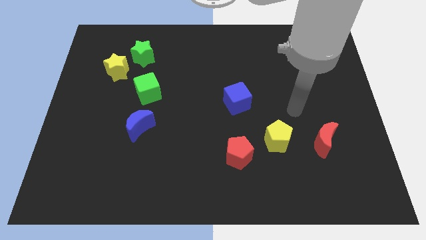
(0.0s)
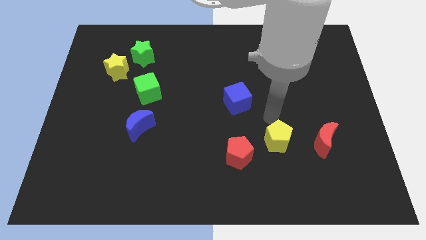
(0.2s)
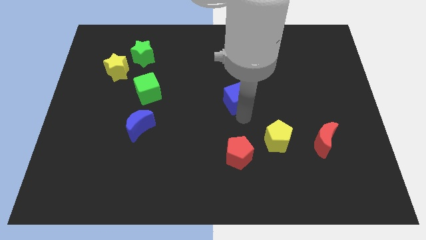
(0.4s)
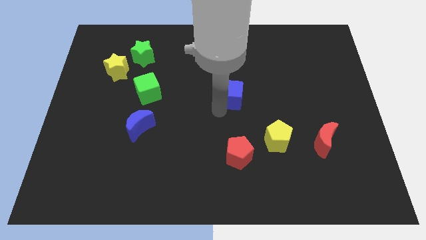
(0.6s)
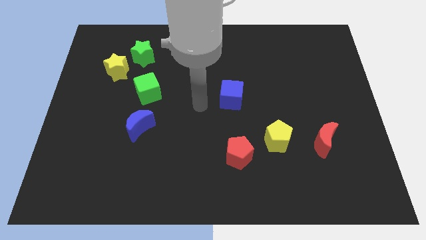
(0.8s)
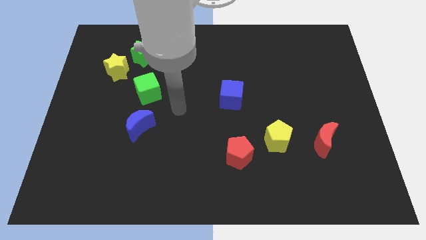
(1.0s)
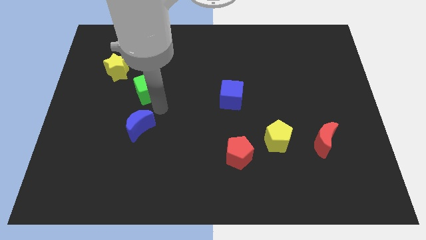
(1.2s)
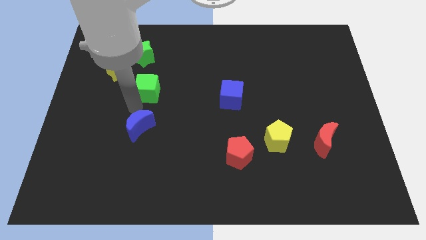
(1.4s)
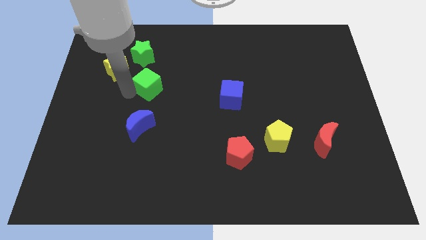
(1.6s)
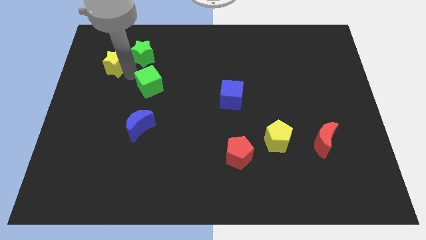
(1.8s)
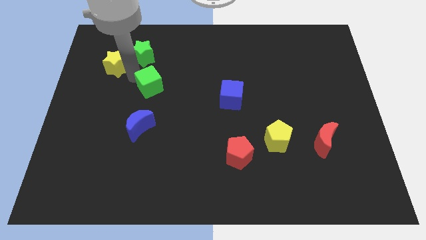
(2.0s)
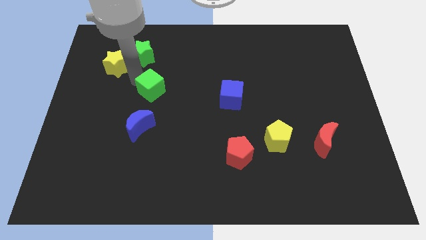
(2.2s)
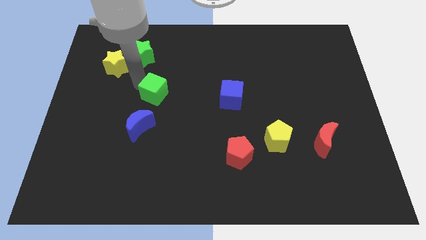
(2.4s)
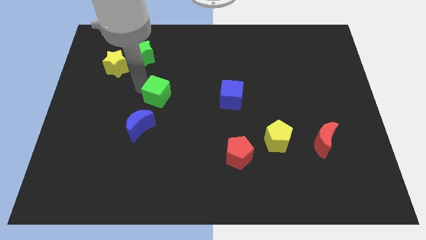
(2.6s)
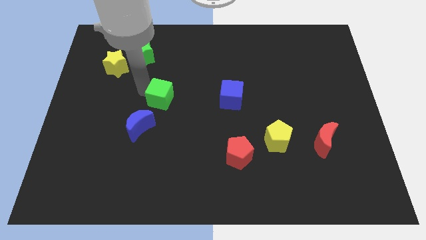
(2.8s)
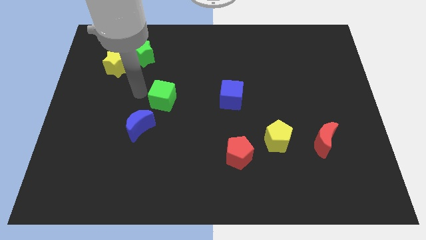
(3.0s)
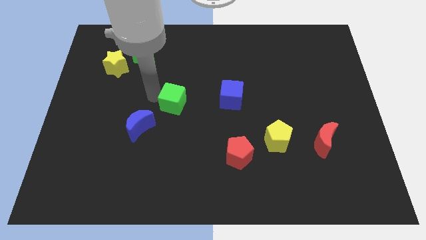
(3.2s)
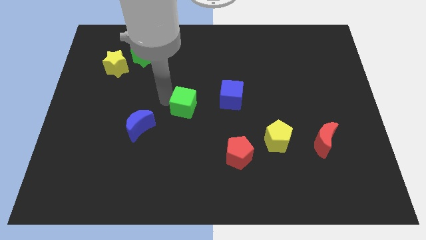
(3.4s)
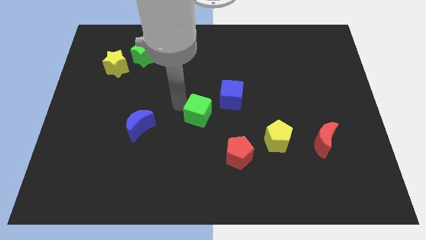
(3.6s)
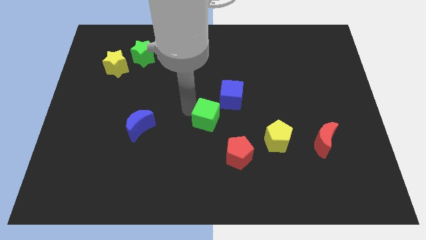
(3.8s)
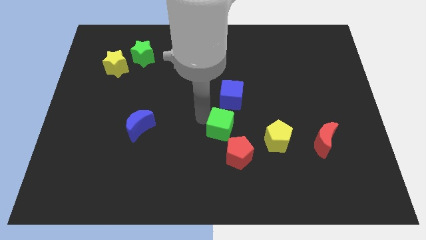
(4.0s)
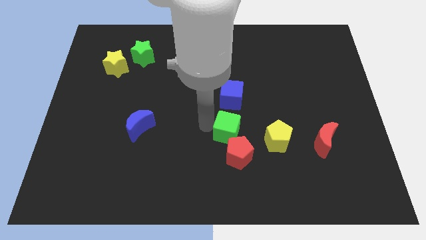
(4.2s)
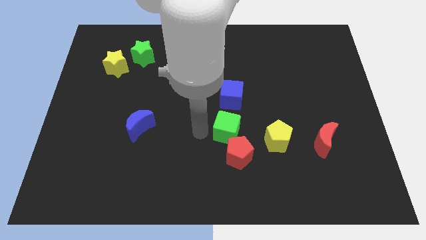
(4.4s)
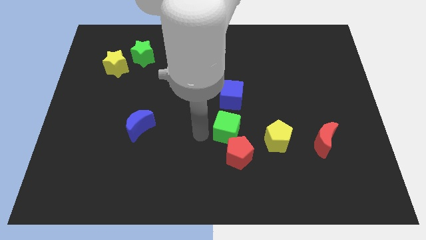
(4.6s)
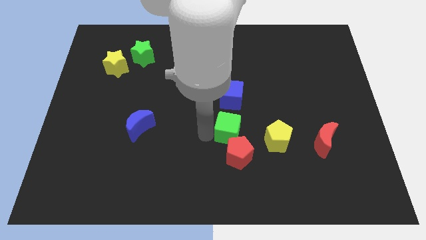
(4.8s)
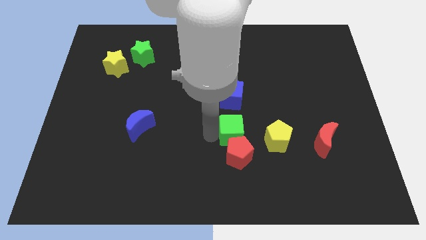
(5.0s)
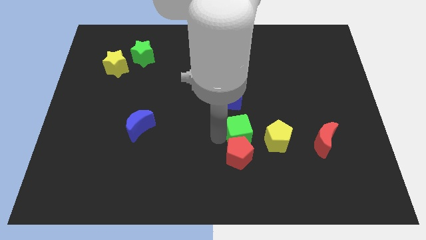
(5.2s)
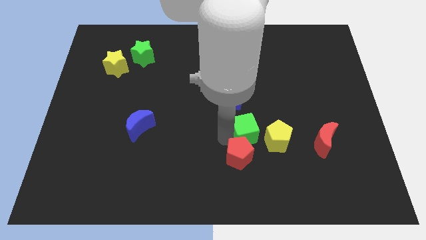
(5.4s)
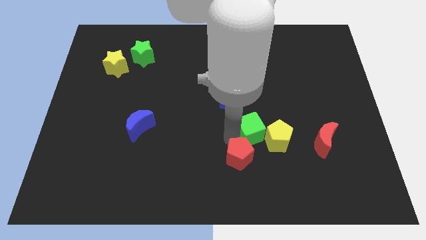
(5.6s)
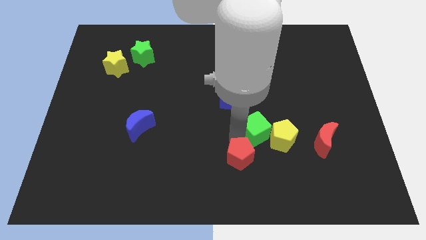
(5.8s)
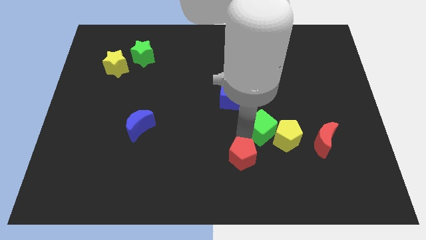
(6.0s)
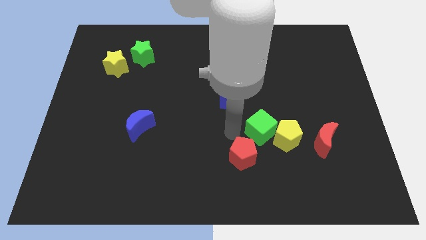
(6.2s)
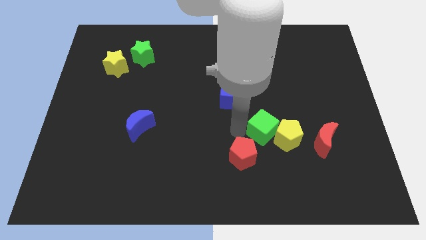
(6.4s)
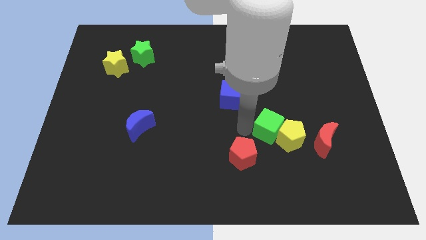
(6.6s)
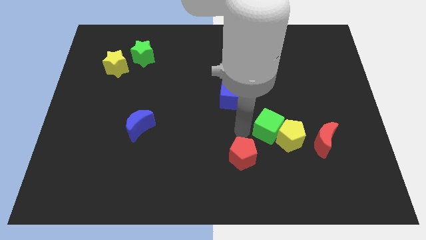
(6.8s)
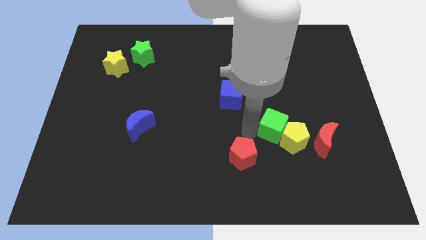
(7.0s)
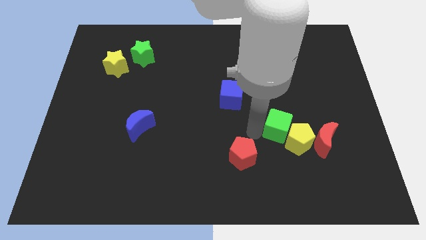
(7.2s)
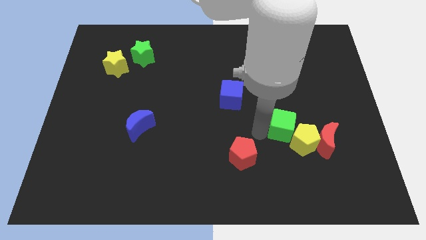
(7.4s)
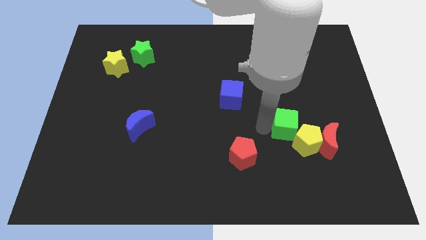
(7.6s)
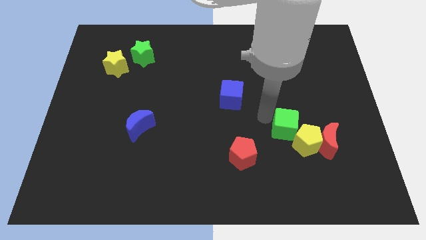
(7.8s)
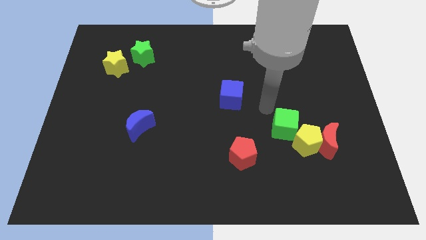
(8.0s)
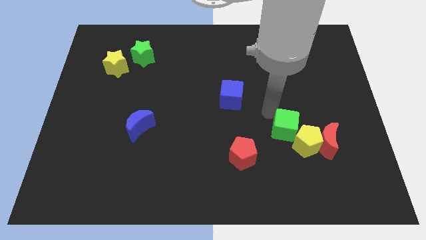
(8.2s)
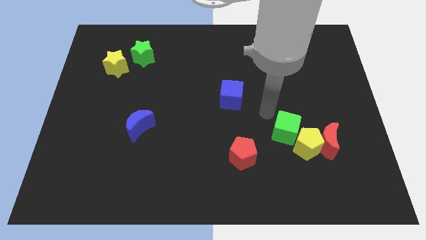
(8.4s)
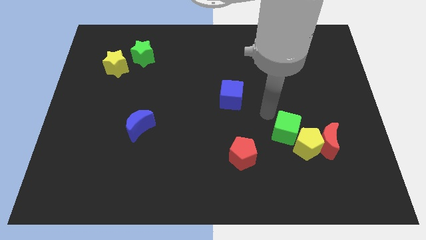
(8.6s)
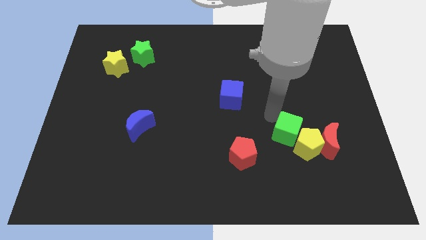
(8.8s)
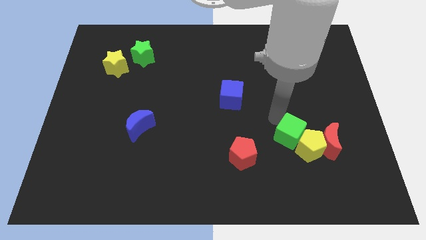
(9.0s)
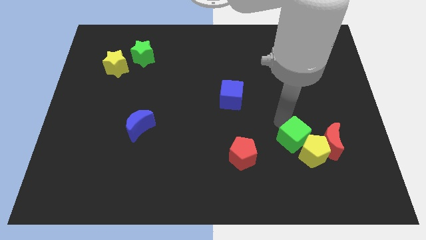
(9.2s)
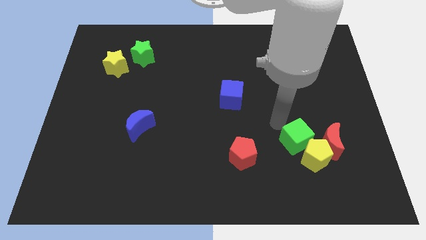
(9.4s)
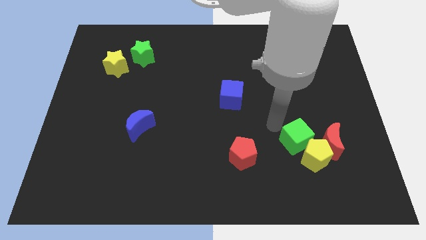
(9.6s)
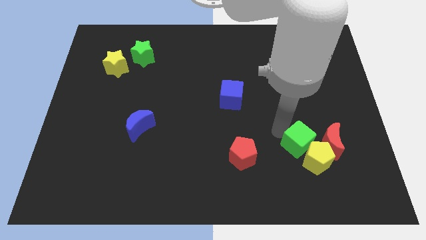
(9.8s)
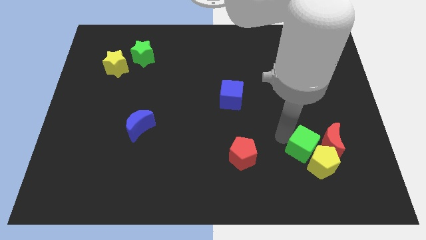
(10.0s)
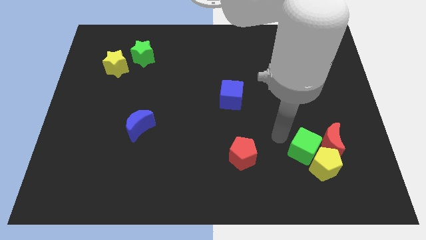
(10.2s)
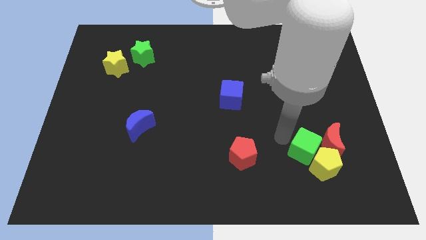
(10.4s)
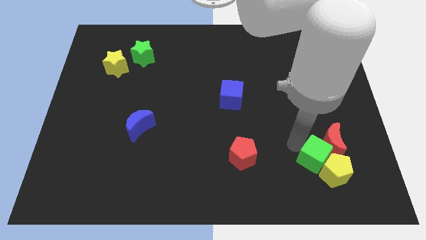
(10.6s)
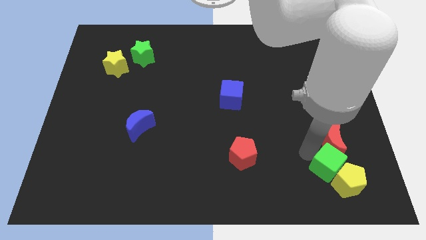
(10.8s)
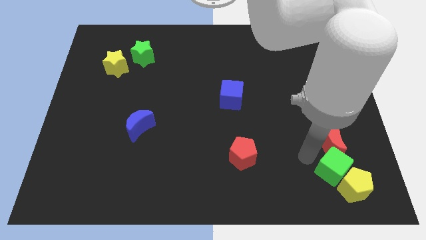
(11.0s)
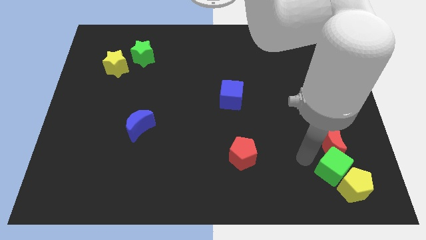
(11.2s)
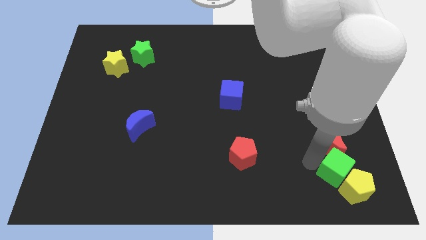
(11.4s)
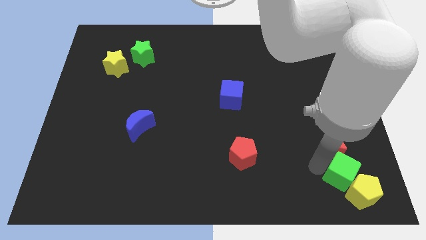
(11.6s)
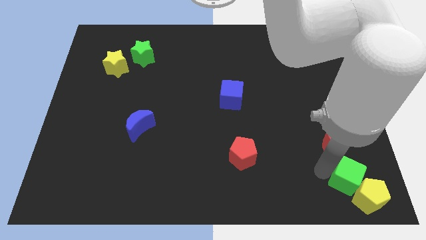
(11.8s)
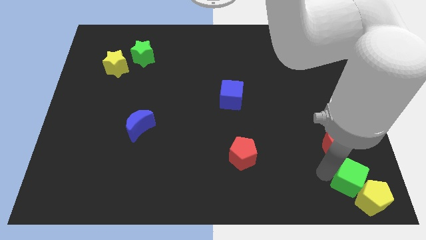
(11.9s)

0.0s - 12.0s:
move the green cube to the bottom right

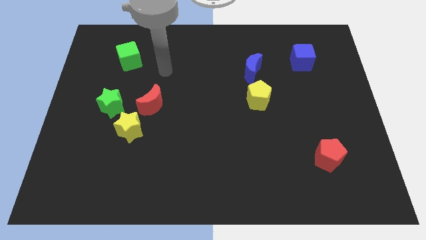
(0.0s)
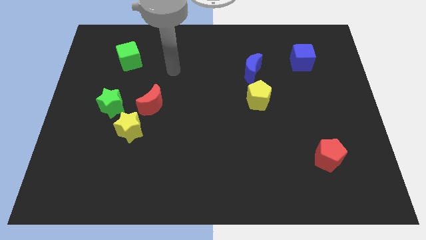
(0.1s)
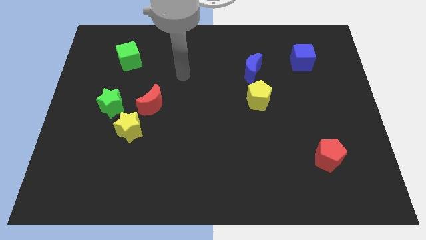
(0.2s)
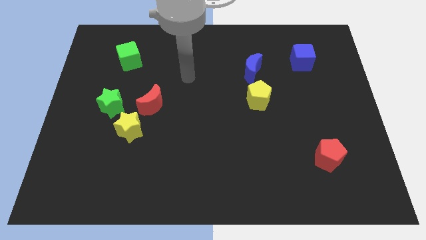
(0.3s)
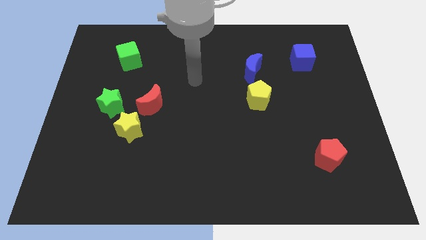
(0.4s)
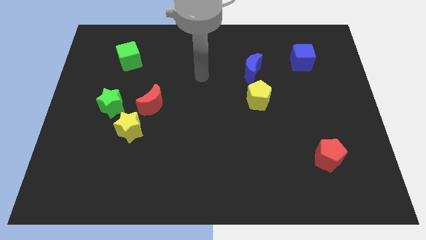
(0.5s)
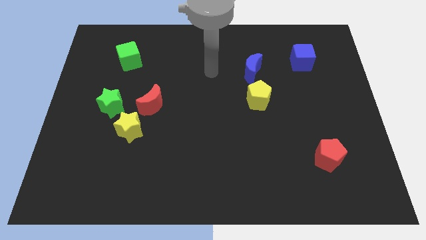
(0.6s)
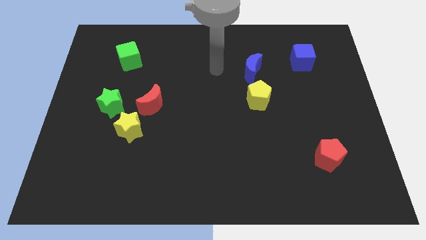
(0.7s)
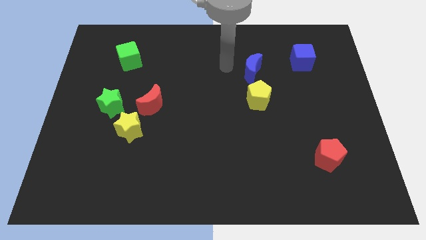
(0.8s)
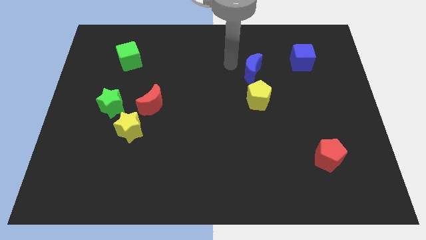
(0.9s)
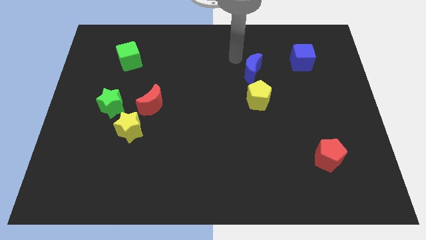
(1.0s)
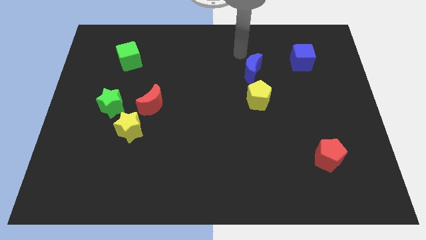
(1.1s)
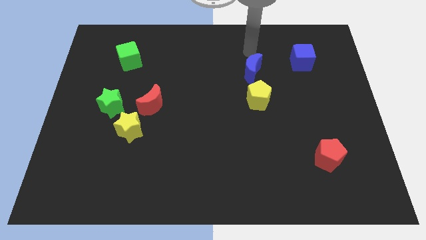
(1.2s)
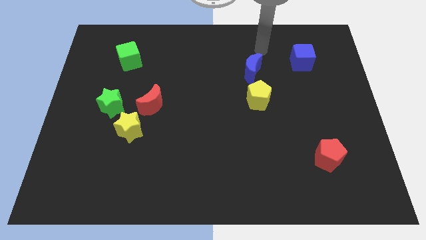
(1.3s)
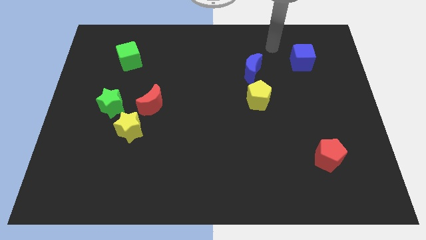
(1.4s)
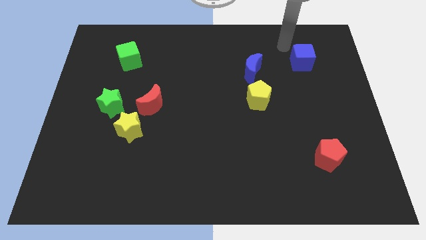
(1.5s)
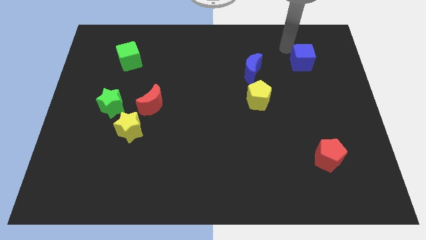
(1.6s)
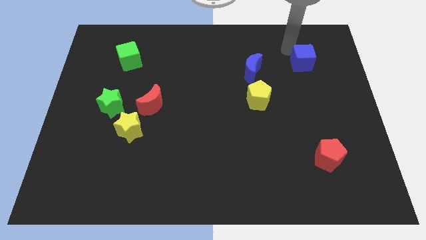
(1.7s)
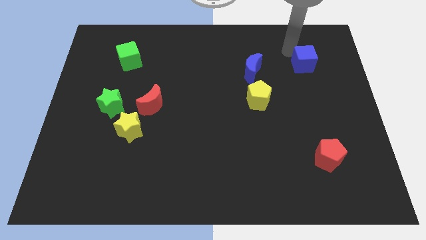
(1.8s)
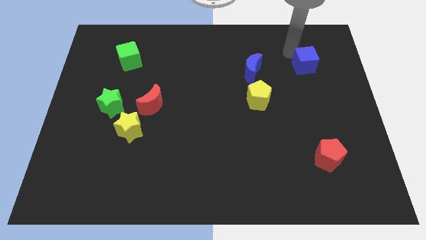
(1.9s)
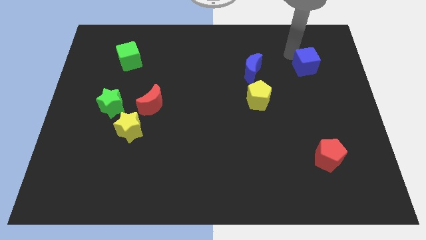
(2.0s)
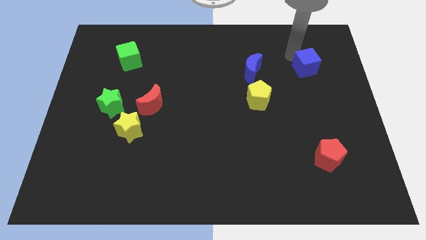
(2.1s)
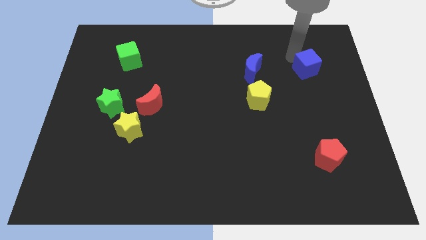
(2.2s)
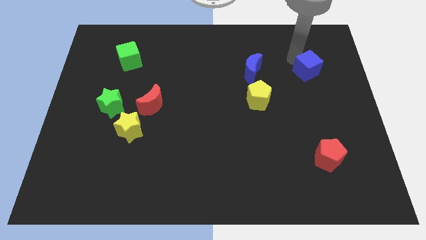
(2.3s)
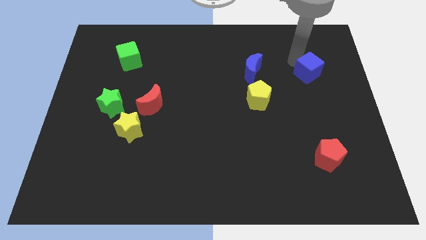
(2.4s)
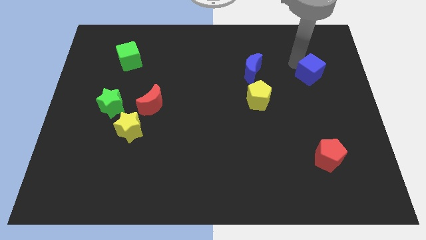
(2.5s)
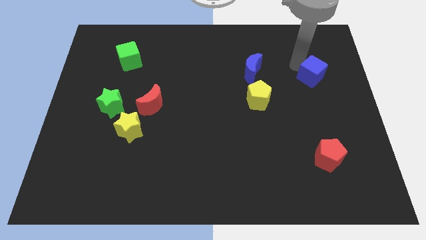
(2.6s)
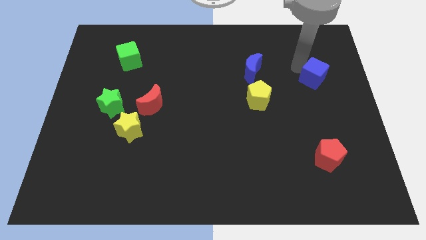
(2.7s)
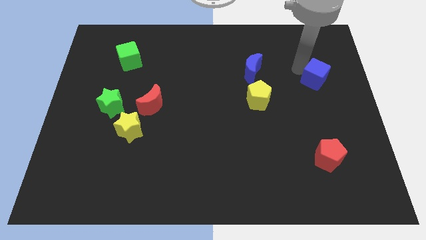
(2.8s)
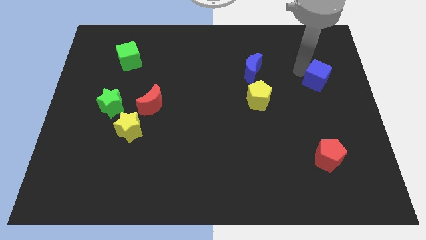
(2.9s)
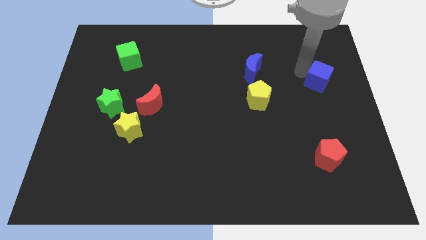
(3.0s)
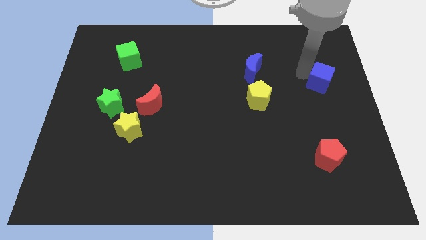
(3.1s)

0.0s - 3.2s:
slide the blue cube to the right side of the board
